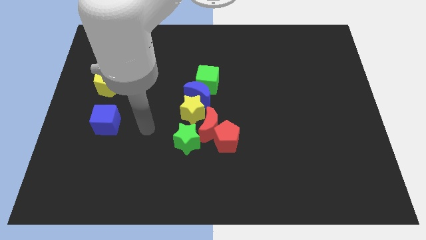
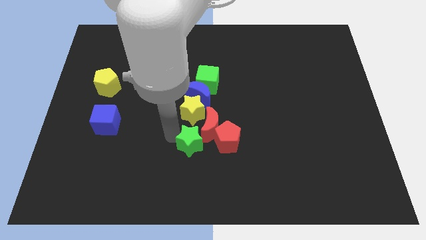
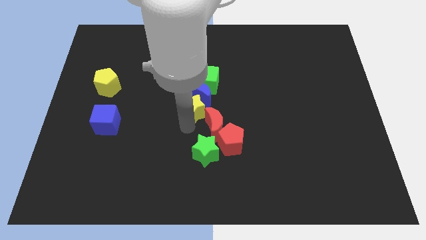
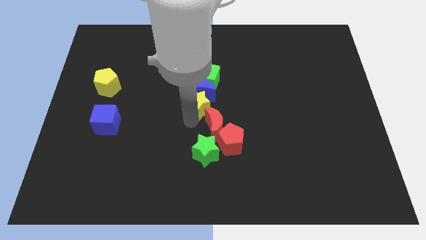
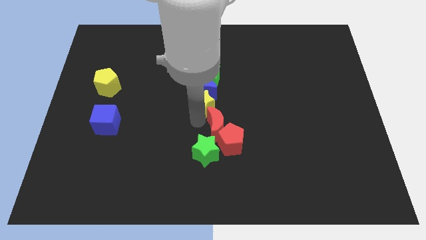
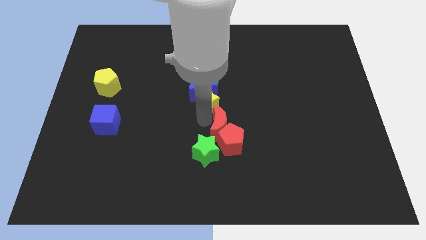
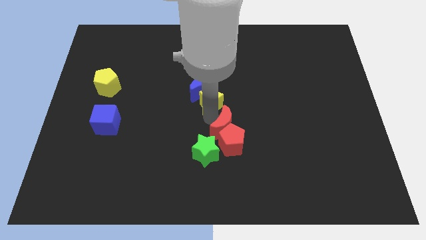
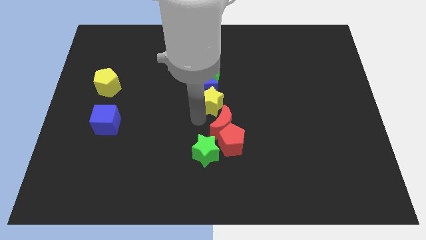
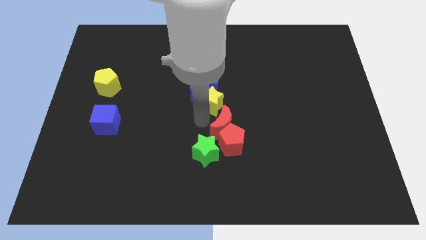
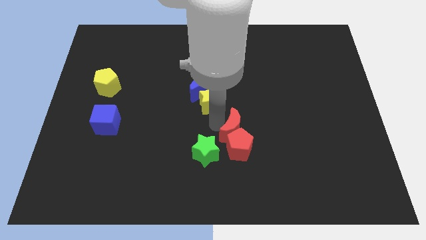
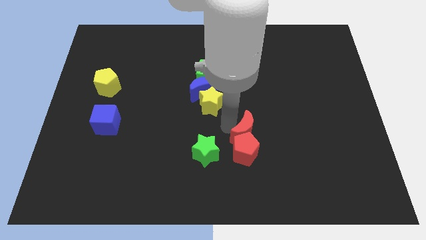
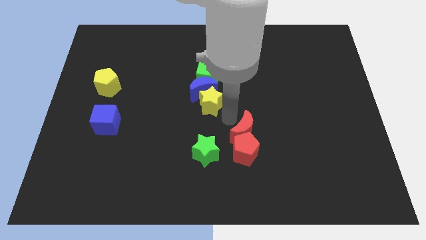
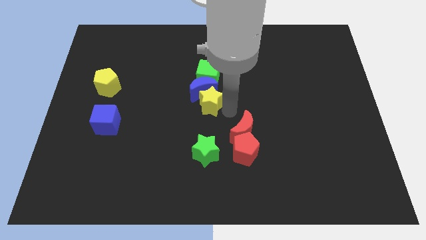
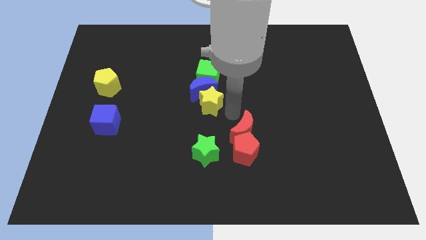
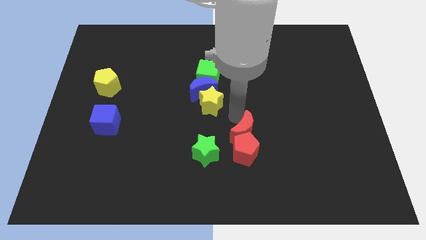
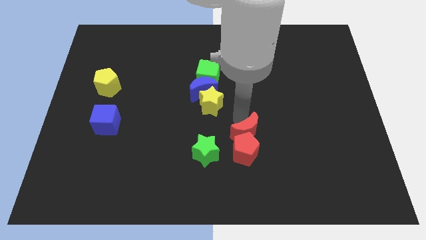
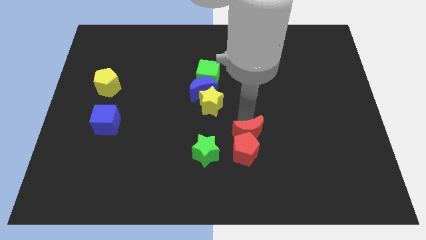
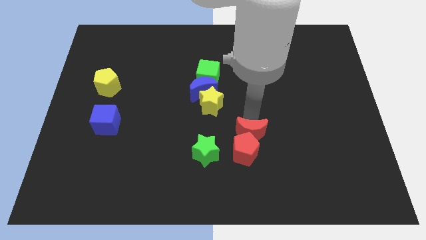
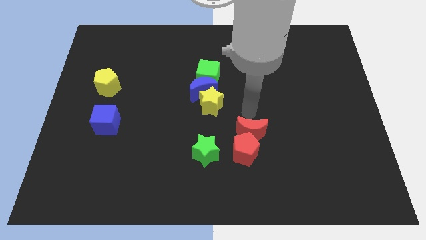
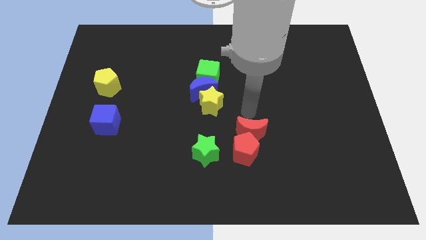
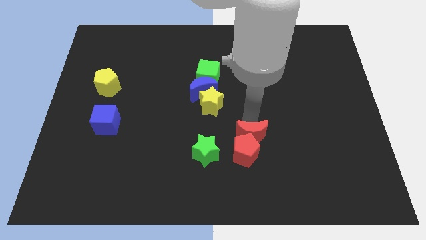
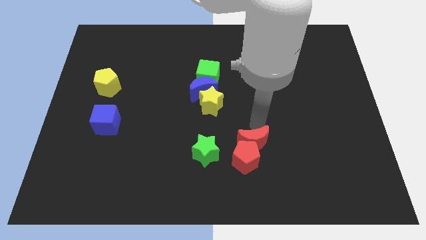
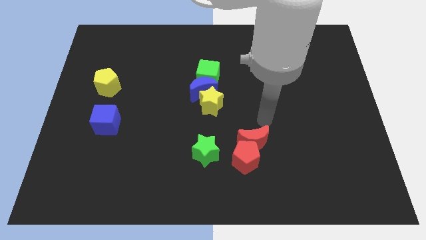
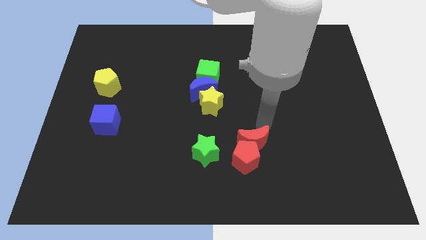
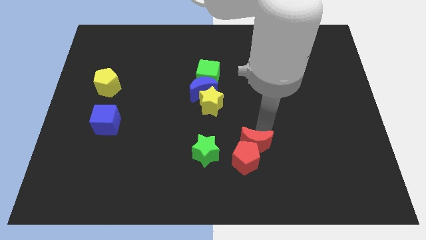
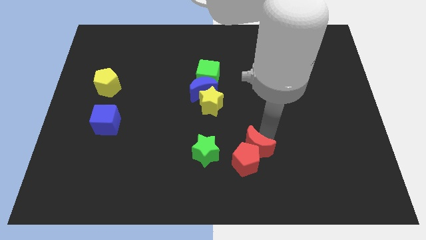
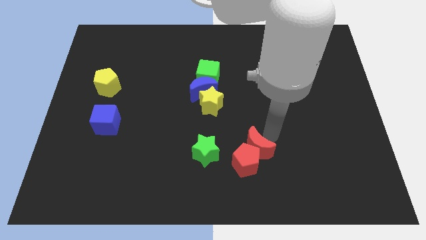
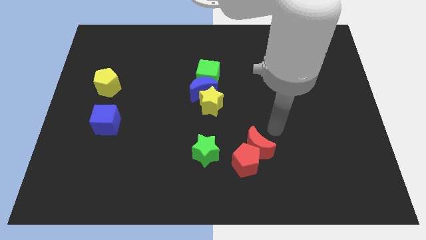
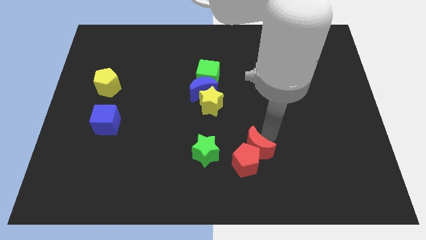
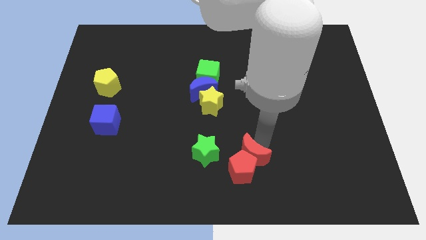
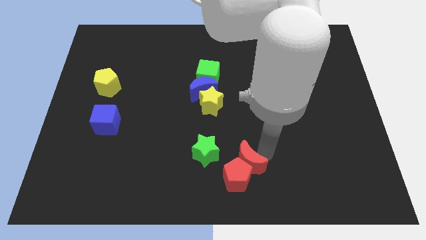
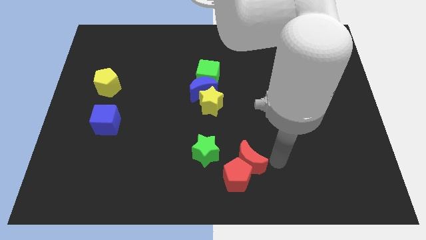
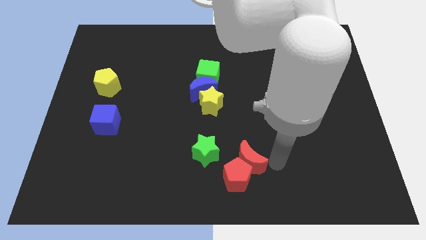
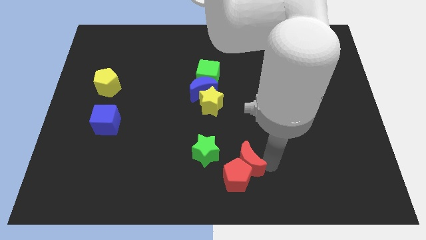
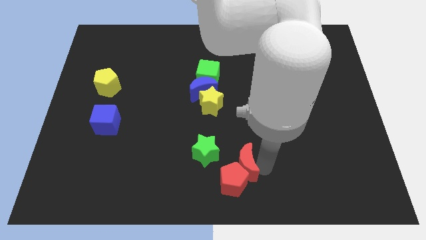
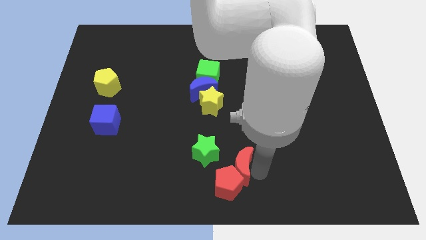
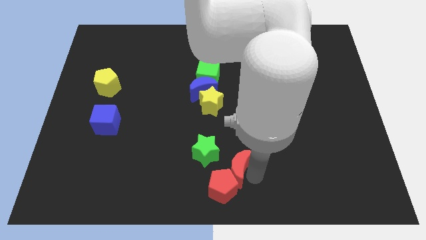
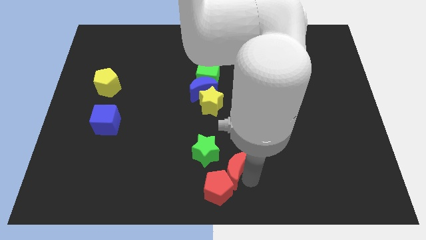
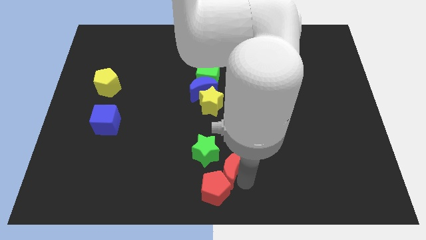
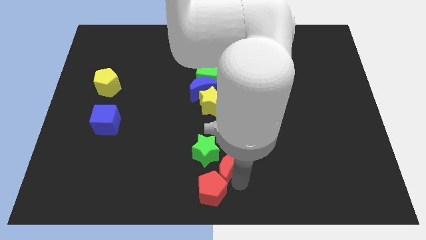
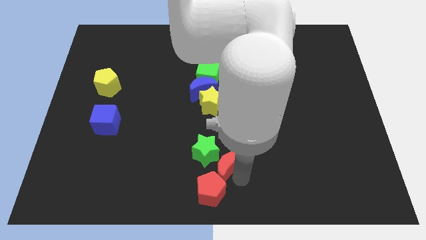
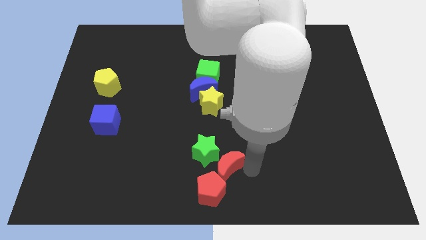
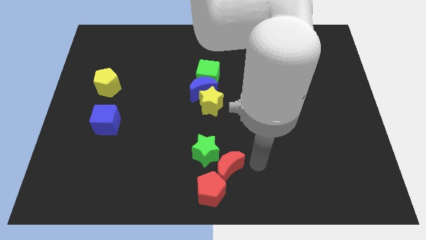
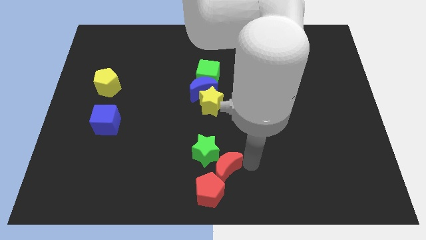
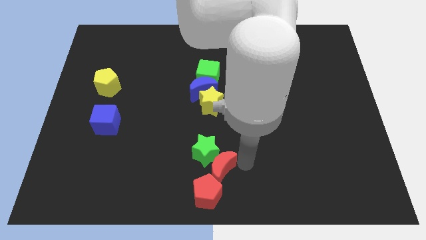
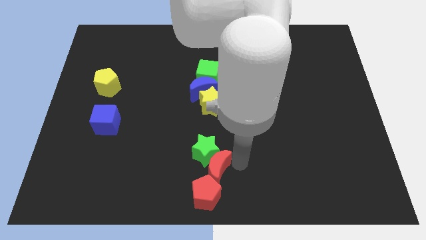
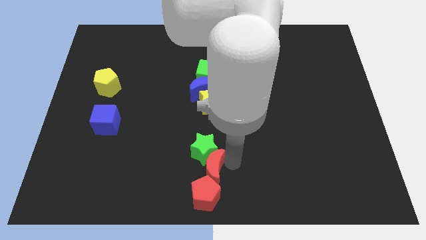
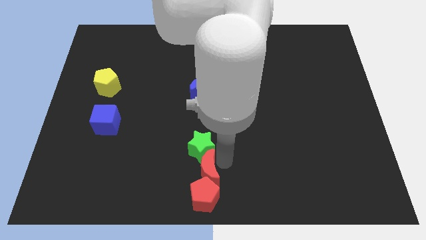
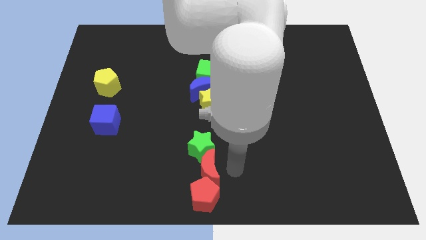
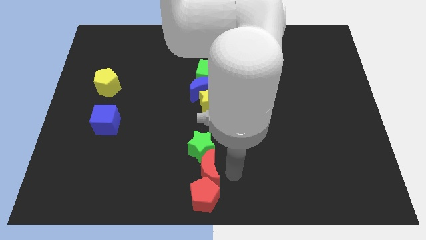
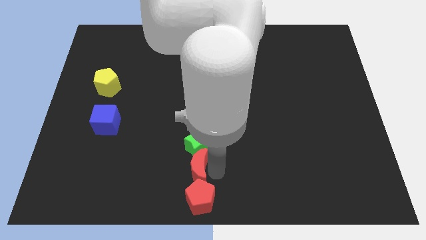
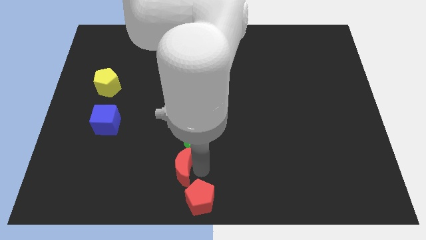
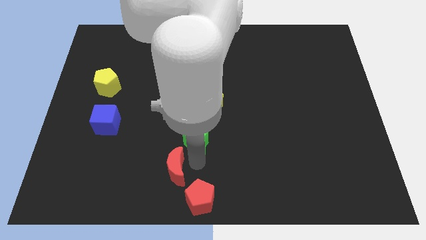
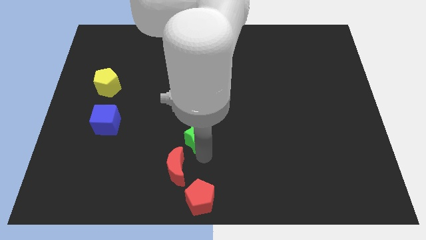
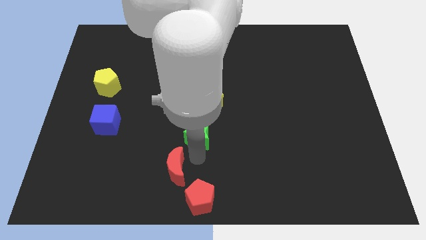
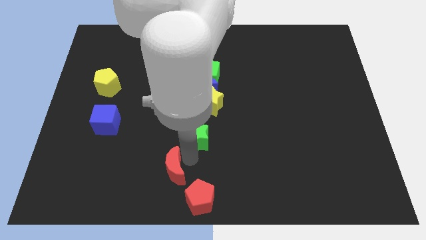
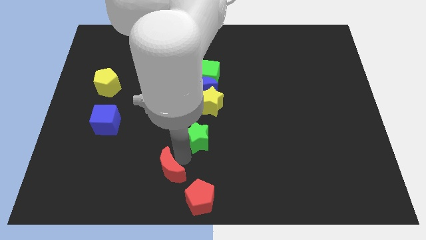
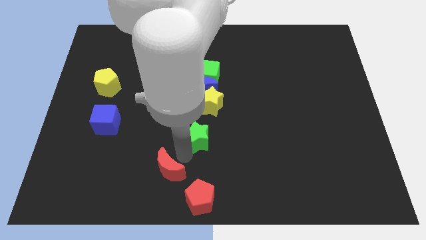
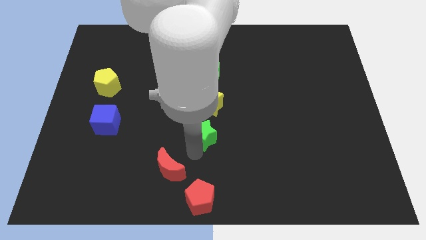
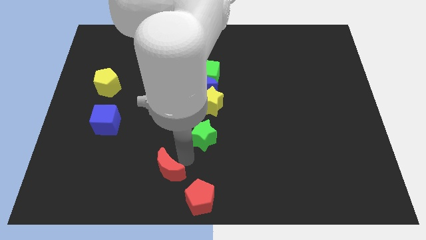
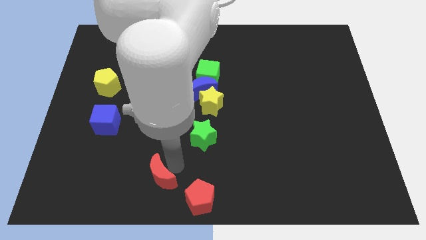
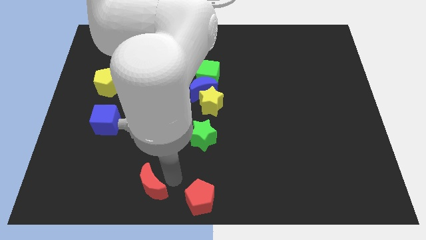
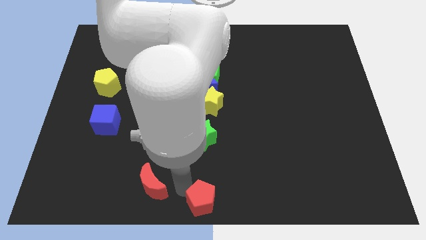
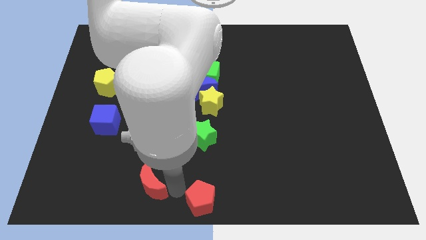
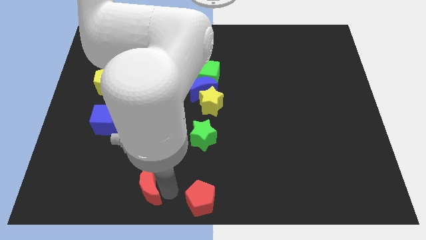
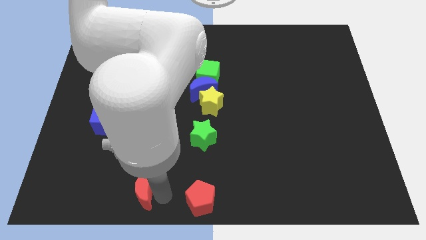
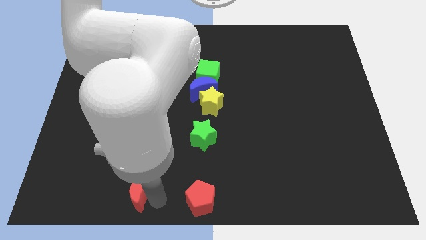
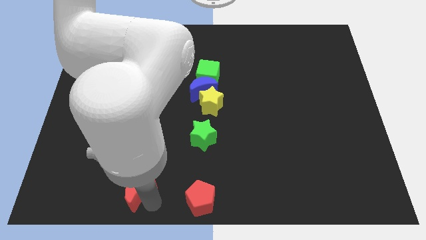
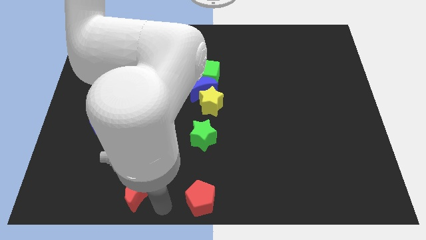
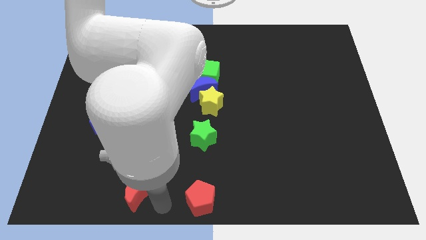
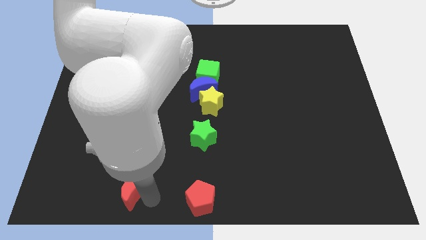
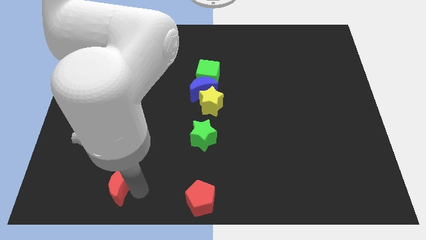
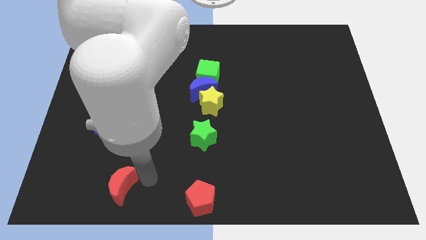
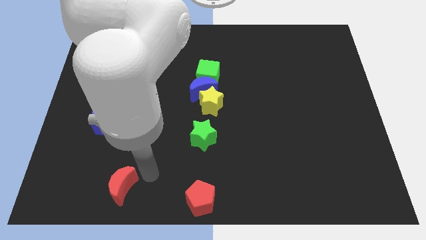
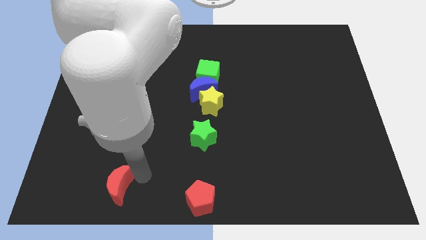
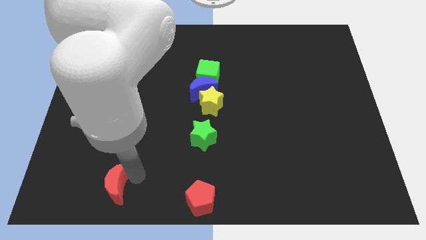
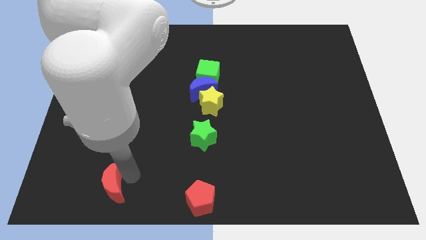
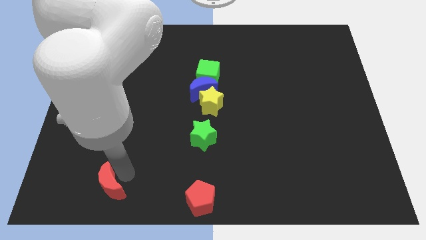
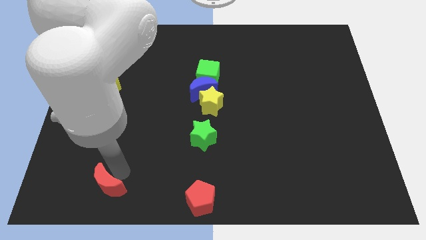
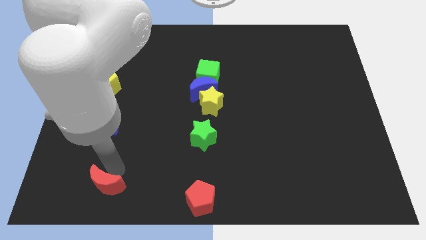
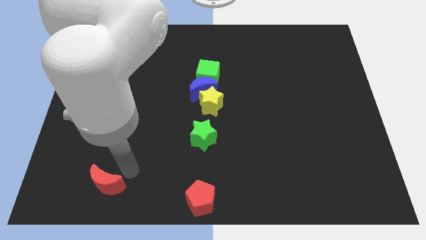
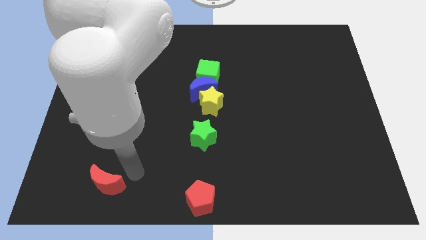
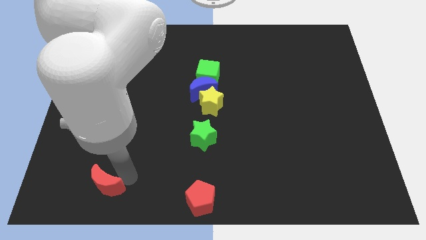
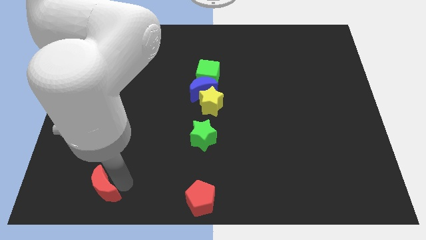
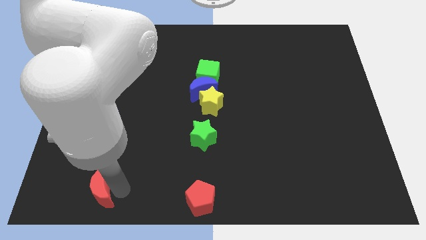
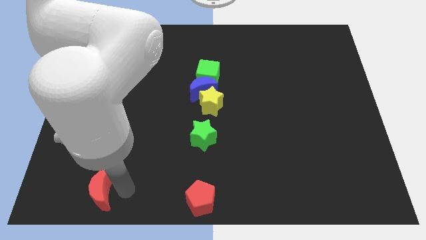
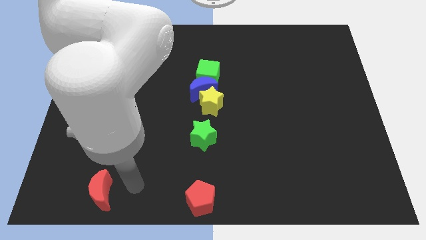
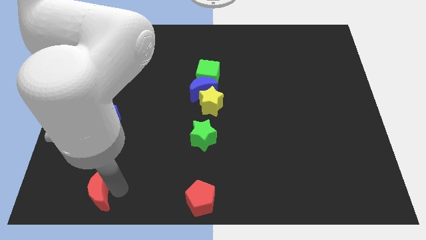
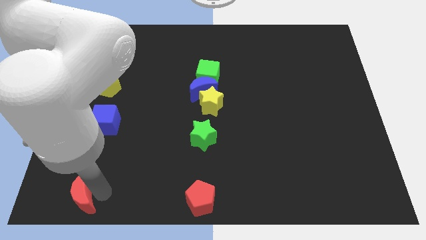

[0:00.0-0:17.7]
move the red moon to the lower left corner
